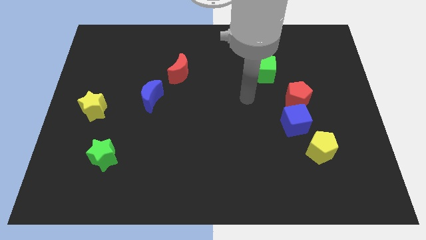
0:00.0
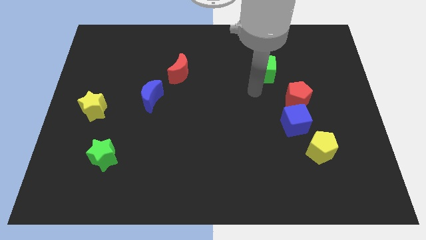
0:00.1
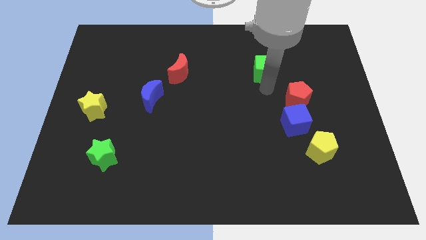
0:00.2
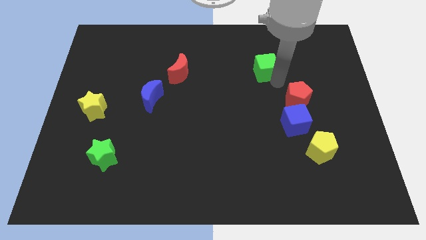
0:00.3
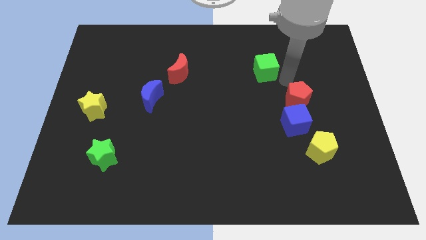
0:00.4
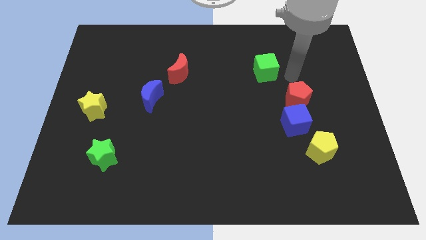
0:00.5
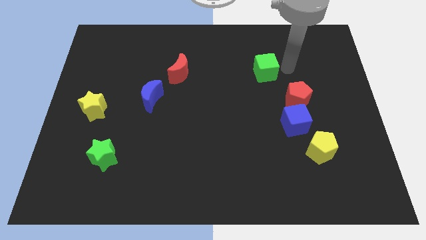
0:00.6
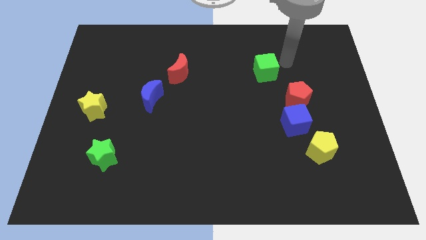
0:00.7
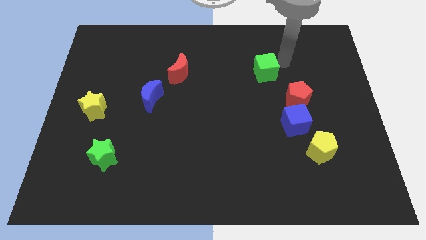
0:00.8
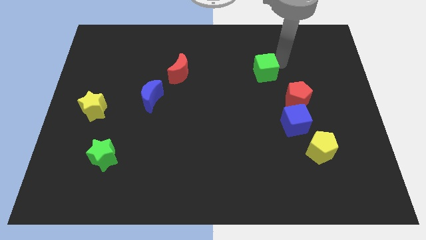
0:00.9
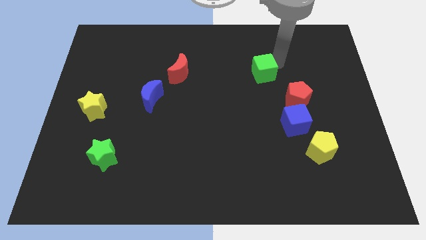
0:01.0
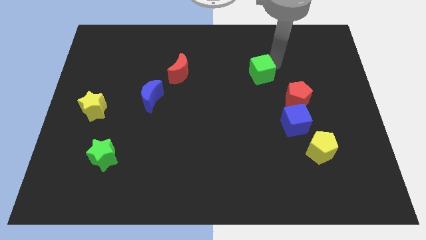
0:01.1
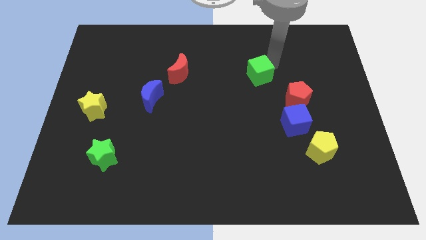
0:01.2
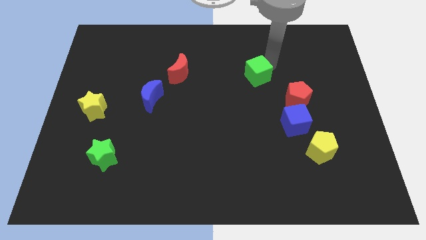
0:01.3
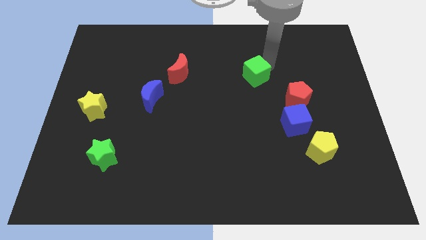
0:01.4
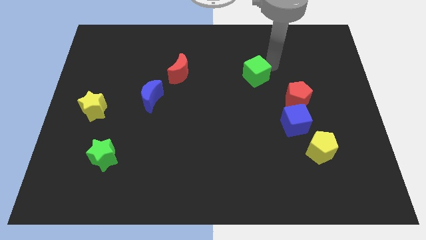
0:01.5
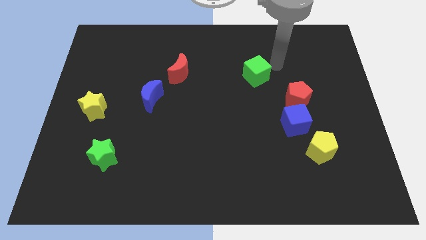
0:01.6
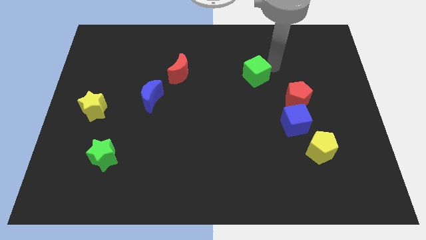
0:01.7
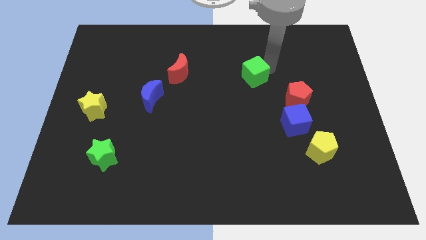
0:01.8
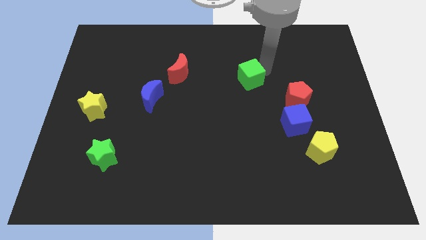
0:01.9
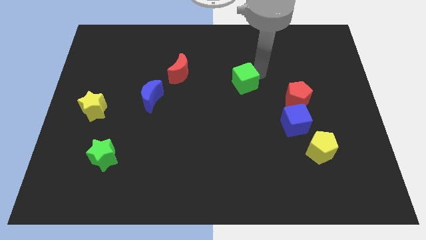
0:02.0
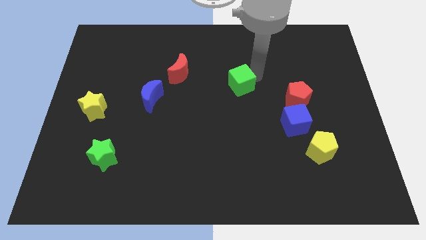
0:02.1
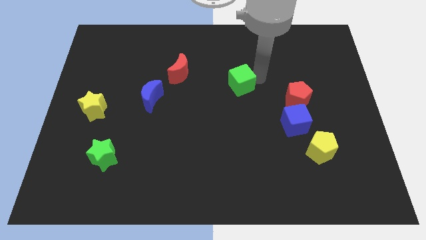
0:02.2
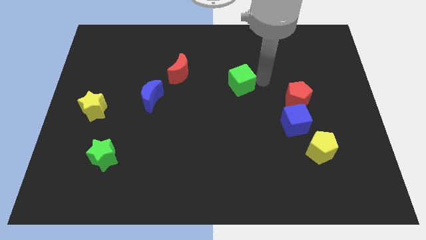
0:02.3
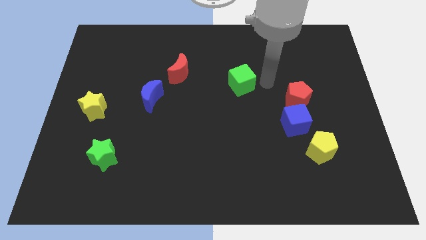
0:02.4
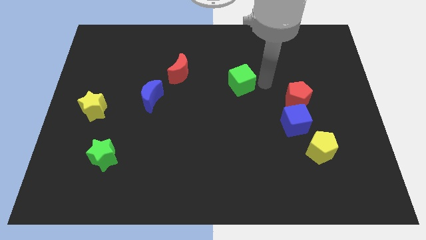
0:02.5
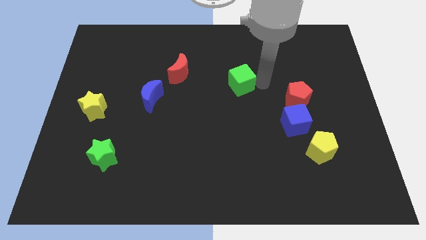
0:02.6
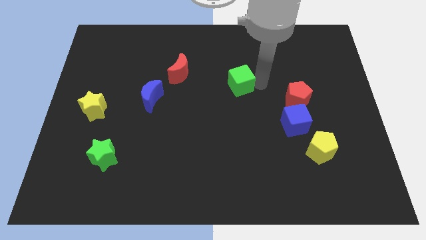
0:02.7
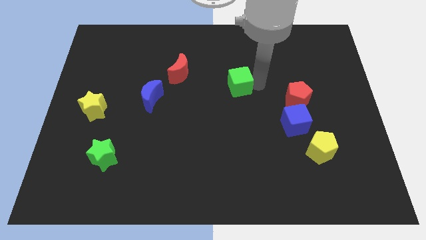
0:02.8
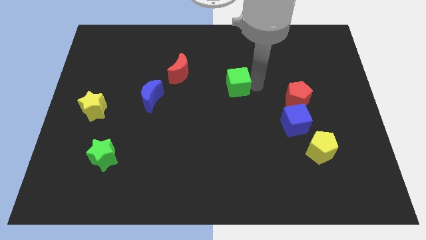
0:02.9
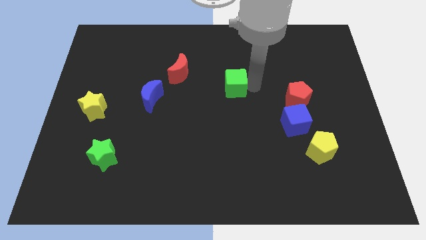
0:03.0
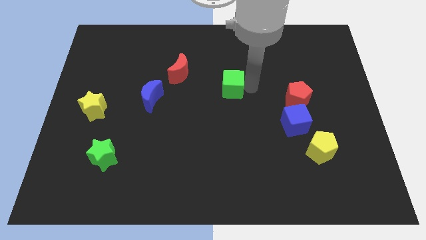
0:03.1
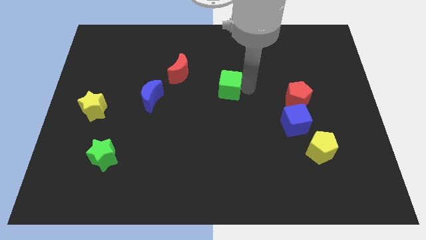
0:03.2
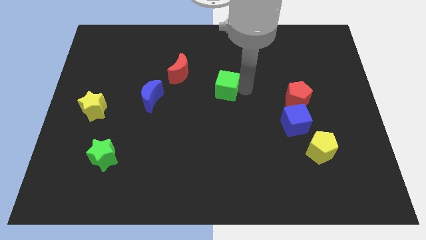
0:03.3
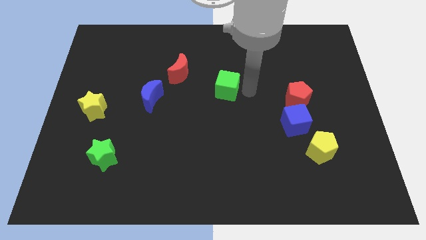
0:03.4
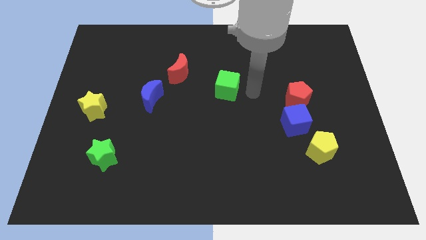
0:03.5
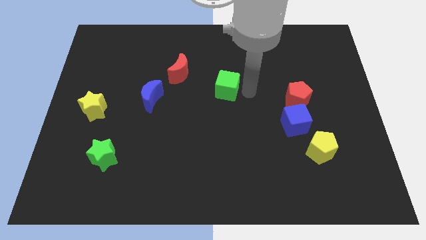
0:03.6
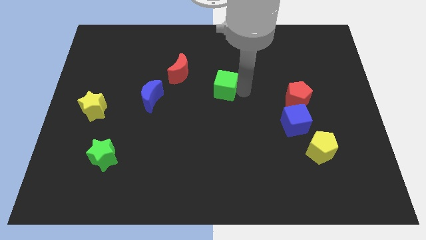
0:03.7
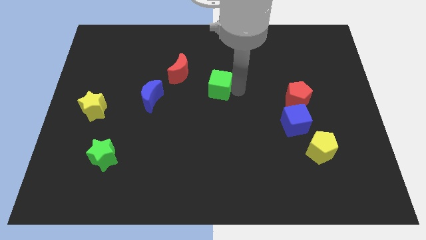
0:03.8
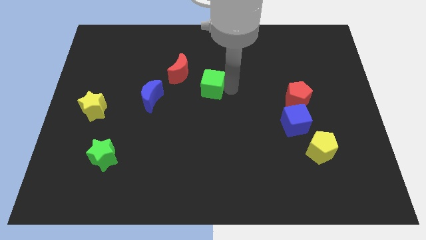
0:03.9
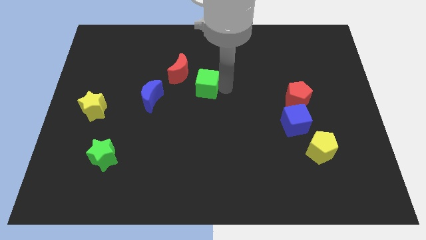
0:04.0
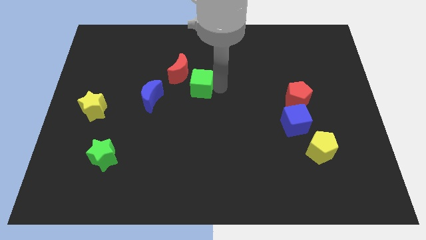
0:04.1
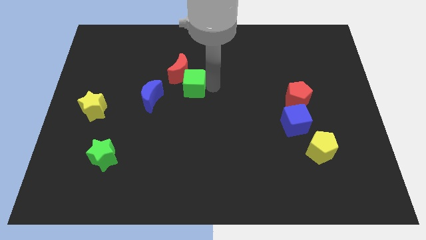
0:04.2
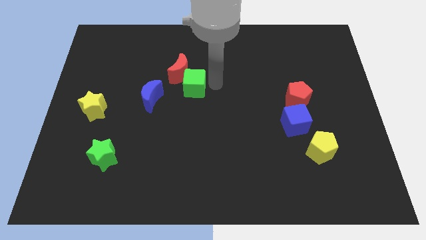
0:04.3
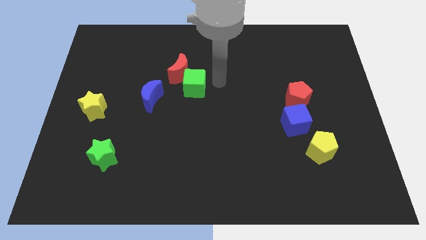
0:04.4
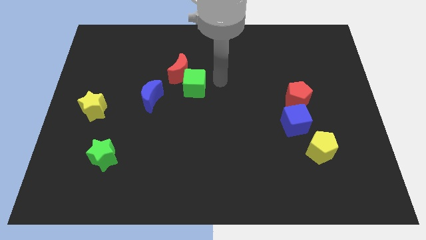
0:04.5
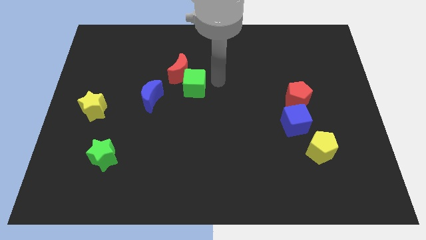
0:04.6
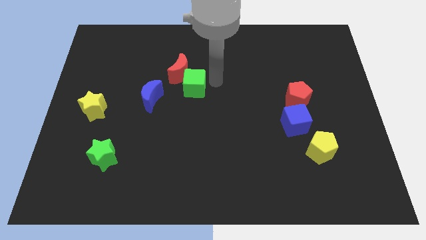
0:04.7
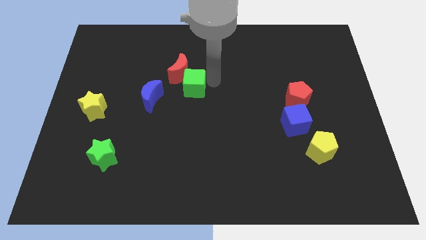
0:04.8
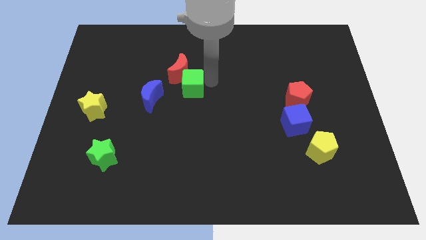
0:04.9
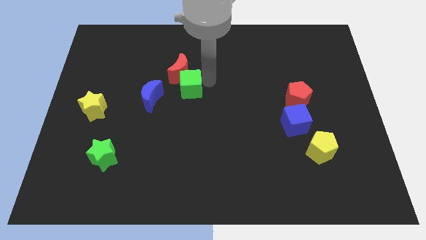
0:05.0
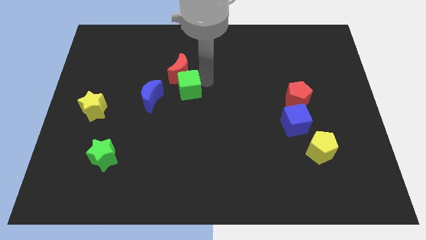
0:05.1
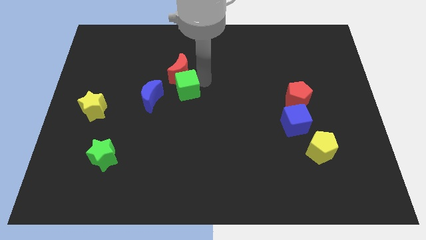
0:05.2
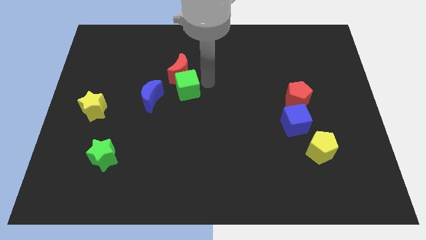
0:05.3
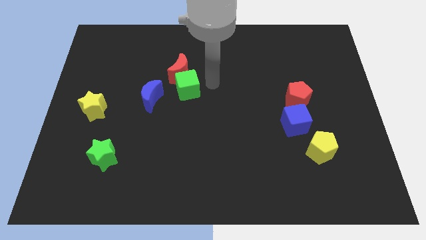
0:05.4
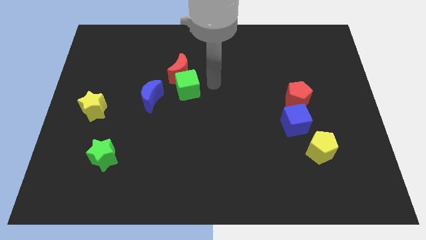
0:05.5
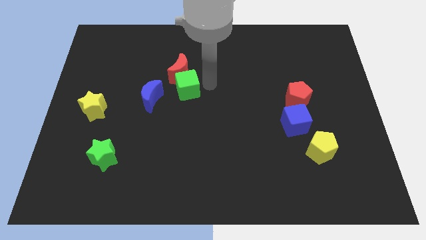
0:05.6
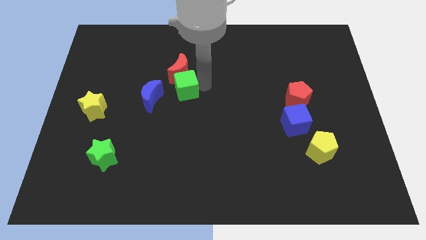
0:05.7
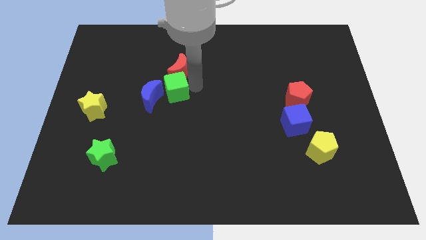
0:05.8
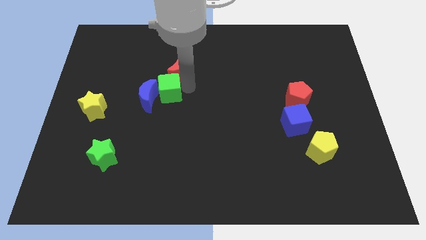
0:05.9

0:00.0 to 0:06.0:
move the green cube close to the blue moon
